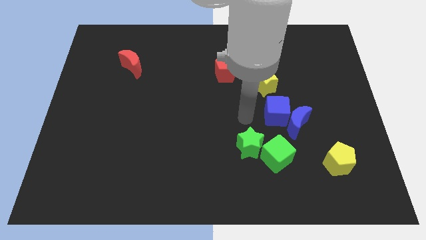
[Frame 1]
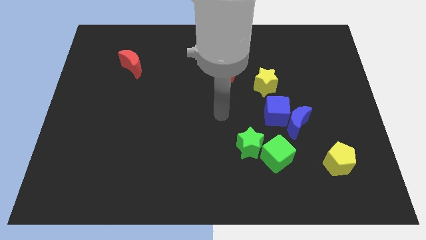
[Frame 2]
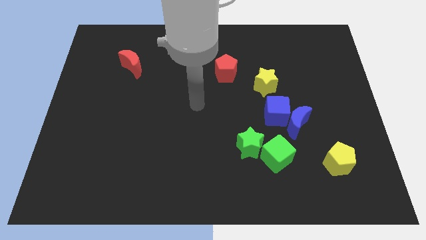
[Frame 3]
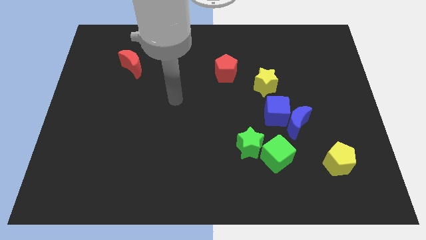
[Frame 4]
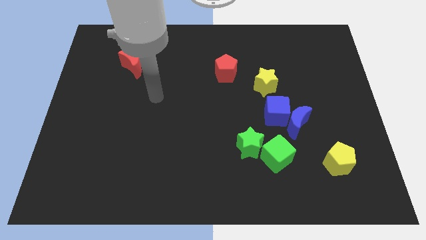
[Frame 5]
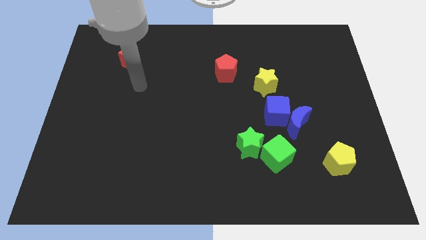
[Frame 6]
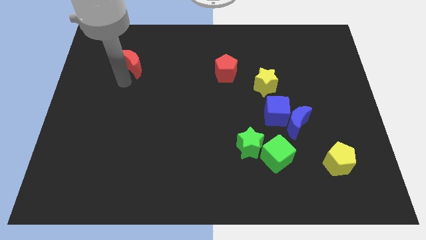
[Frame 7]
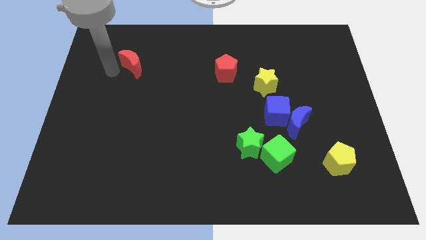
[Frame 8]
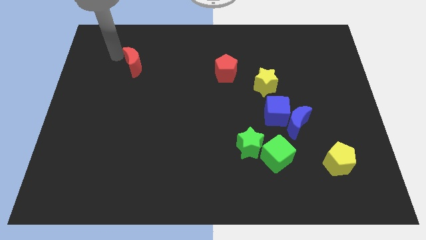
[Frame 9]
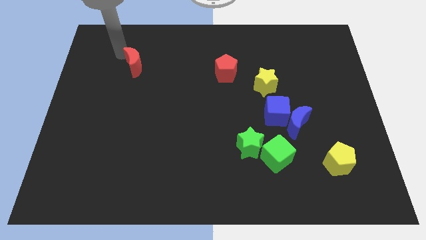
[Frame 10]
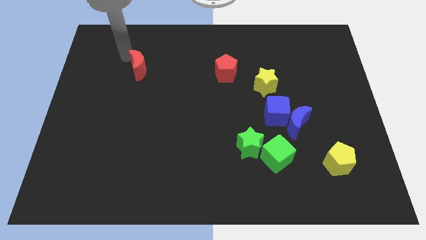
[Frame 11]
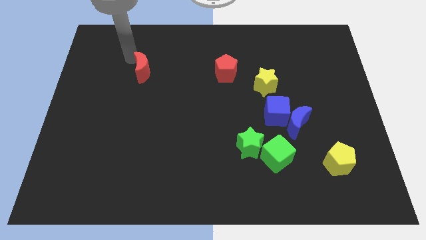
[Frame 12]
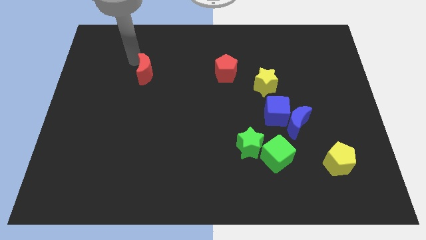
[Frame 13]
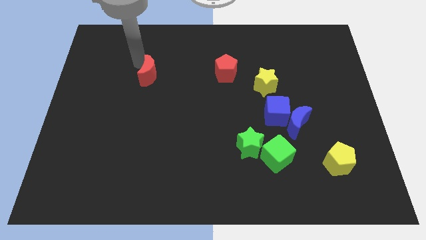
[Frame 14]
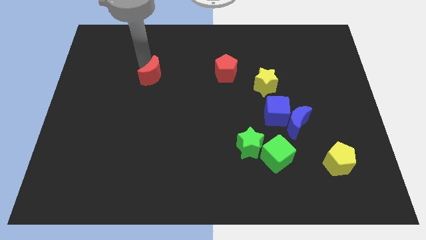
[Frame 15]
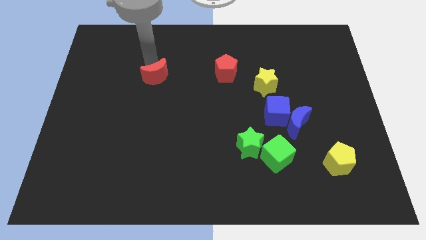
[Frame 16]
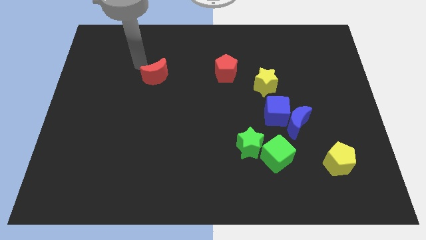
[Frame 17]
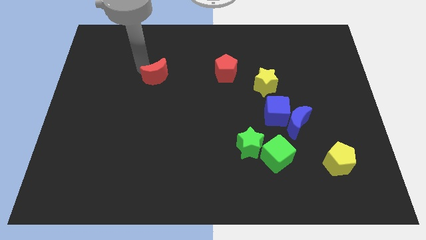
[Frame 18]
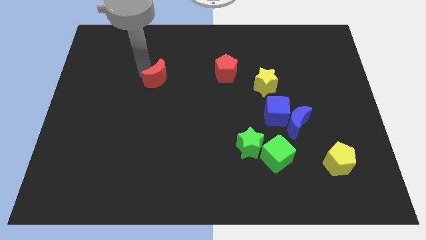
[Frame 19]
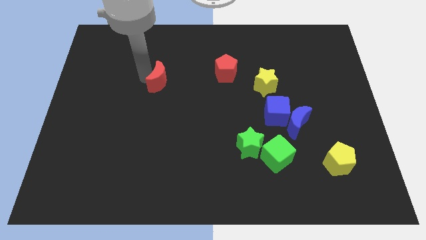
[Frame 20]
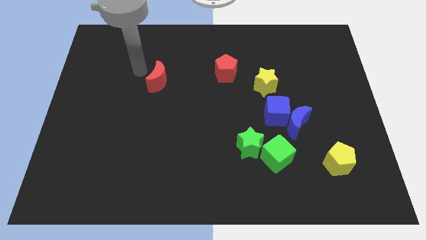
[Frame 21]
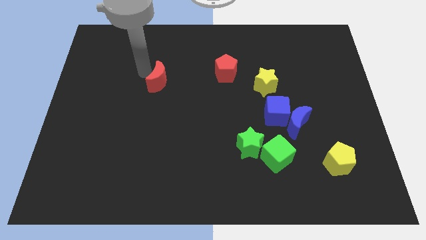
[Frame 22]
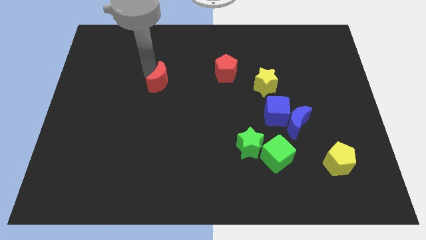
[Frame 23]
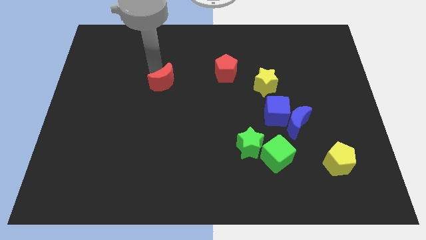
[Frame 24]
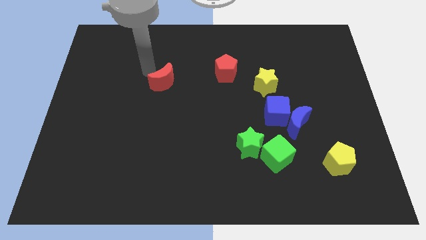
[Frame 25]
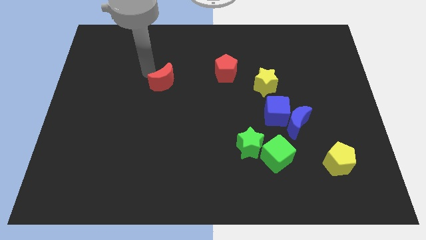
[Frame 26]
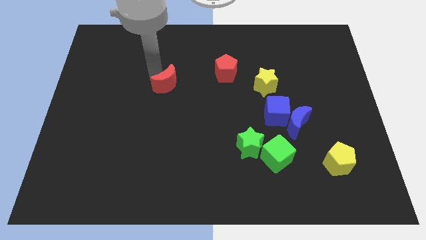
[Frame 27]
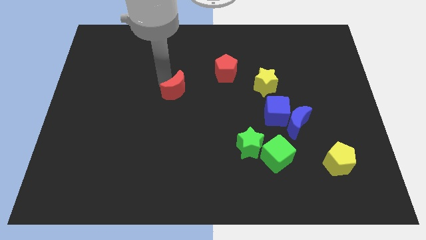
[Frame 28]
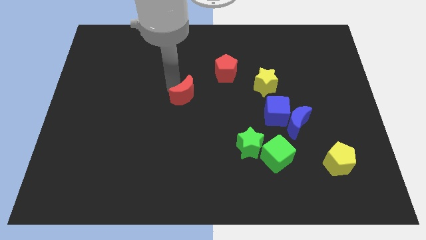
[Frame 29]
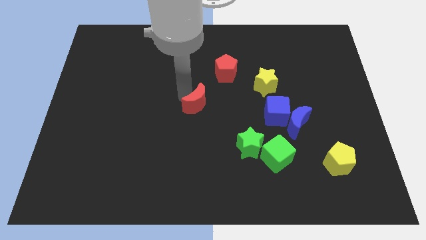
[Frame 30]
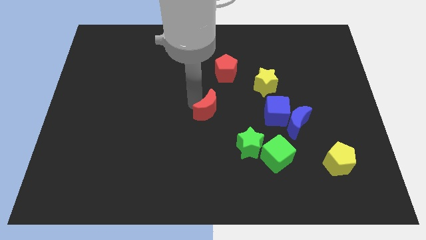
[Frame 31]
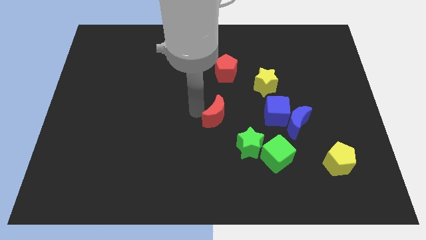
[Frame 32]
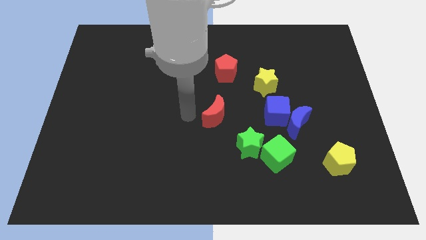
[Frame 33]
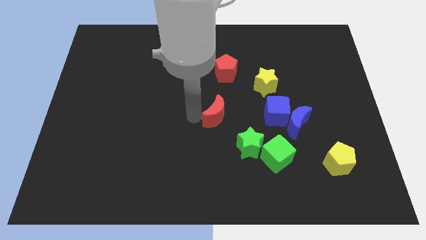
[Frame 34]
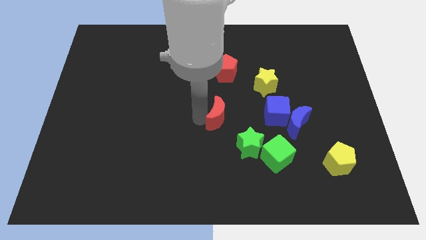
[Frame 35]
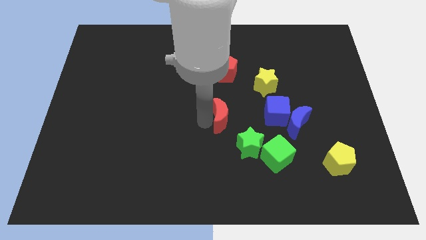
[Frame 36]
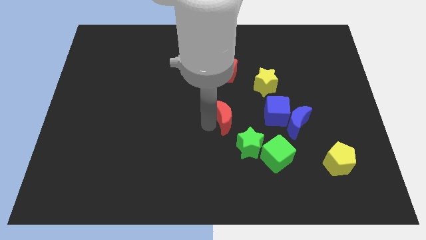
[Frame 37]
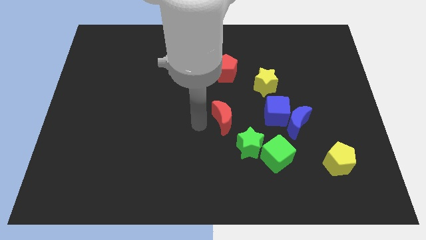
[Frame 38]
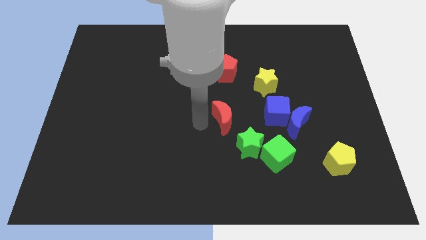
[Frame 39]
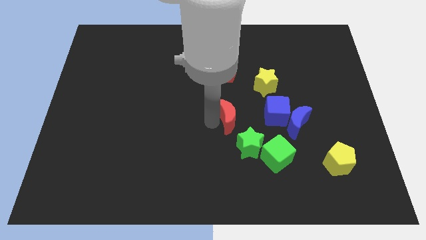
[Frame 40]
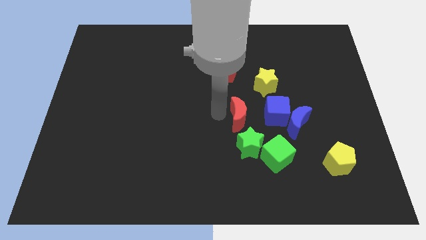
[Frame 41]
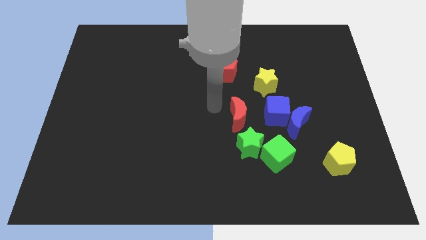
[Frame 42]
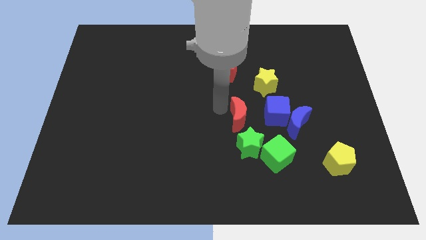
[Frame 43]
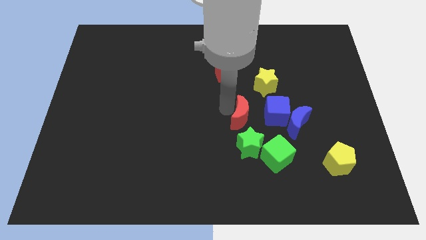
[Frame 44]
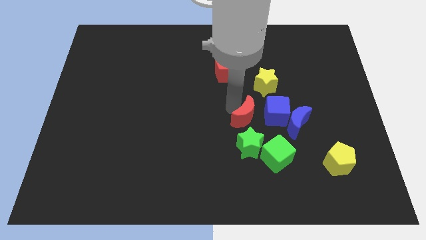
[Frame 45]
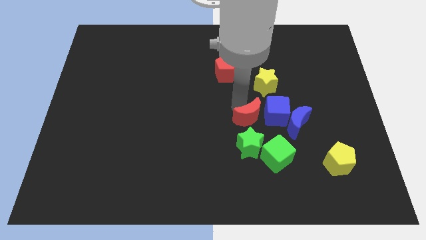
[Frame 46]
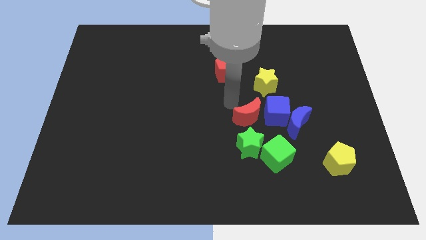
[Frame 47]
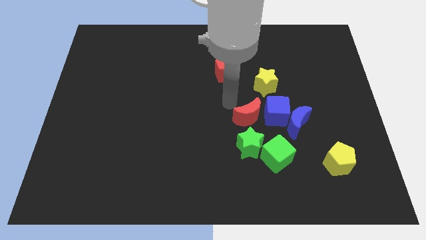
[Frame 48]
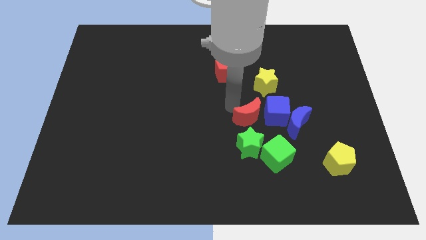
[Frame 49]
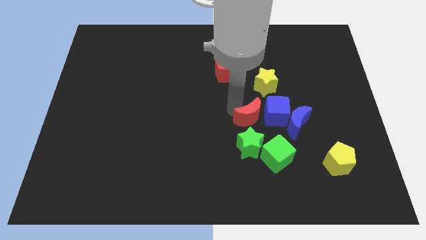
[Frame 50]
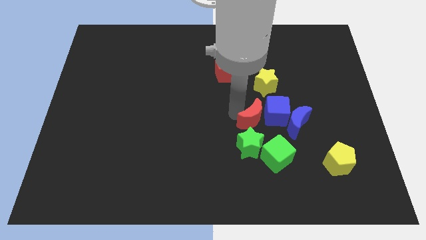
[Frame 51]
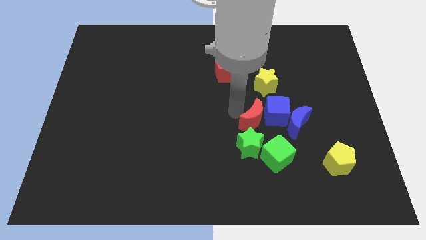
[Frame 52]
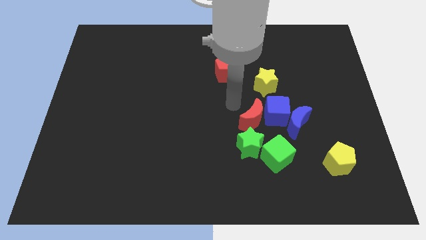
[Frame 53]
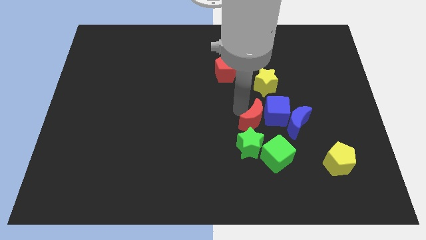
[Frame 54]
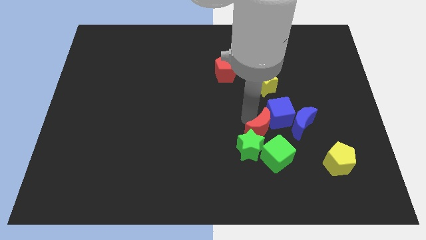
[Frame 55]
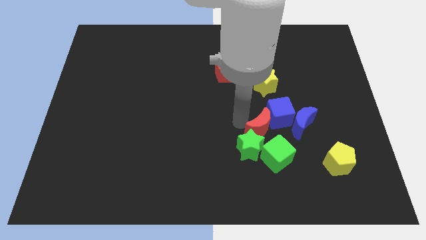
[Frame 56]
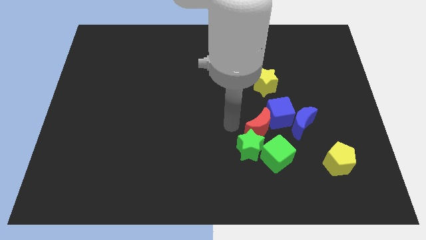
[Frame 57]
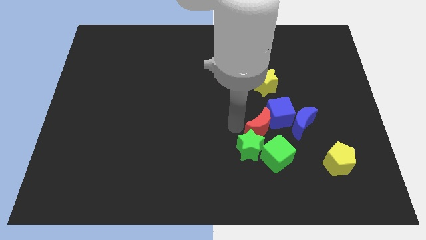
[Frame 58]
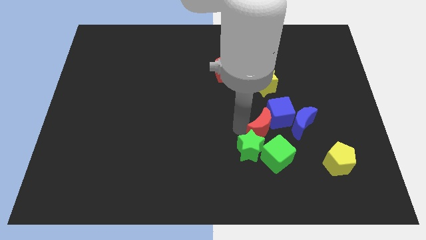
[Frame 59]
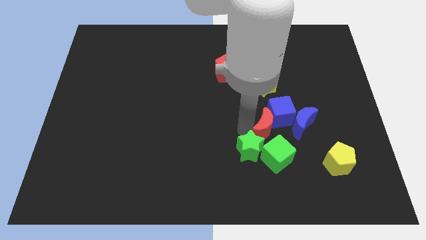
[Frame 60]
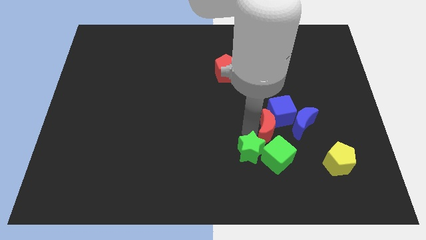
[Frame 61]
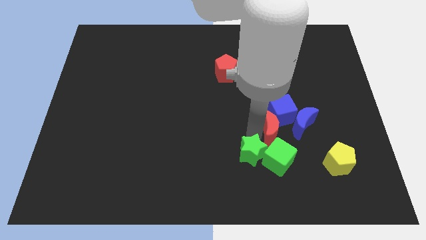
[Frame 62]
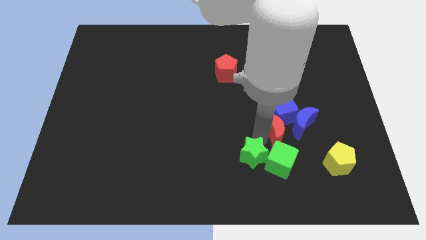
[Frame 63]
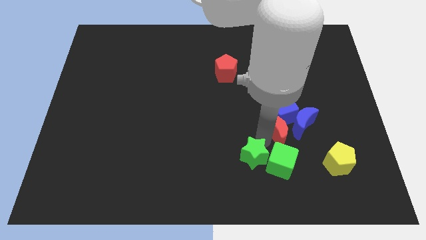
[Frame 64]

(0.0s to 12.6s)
slide the red moon to the blue moon
